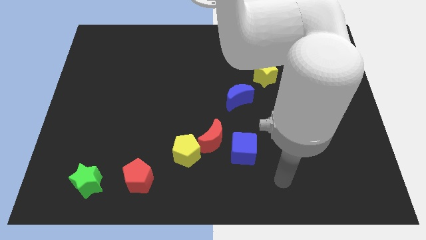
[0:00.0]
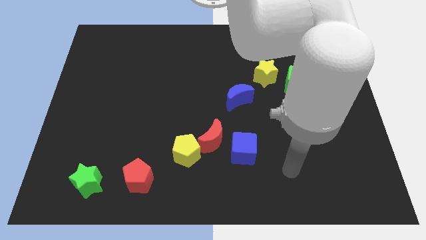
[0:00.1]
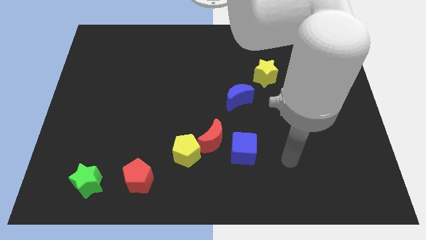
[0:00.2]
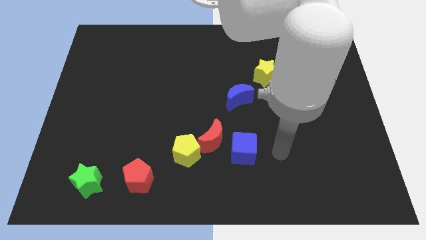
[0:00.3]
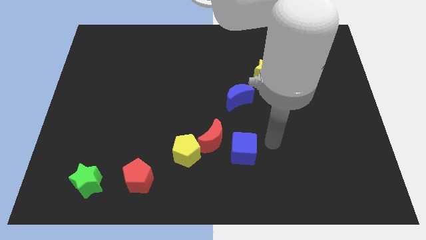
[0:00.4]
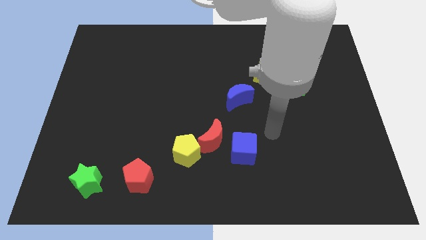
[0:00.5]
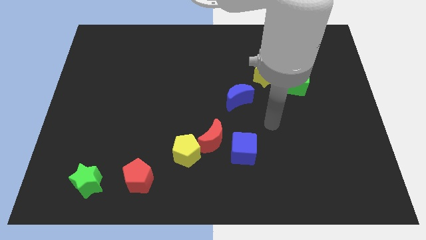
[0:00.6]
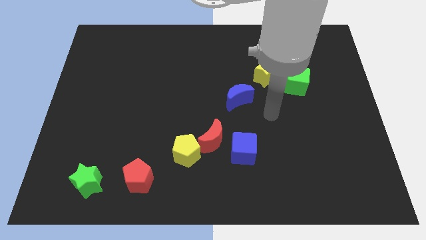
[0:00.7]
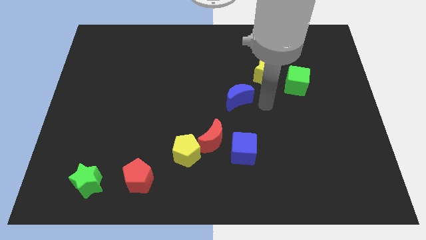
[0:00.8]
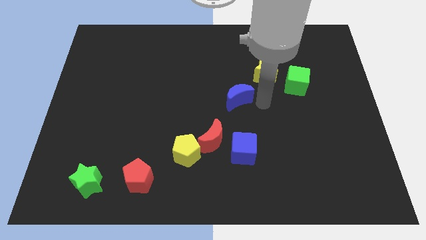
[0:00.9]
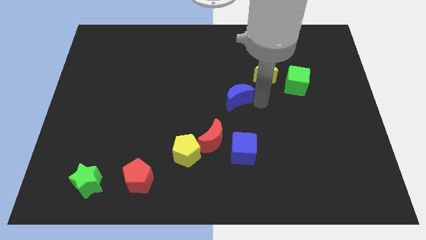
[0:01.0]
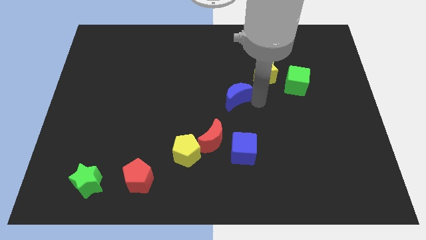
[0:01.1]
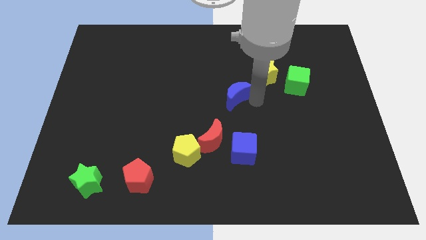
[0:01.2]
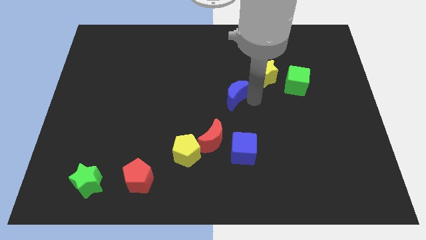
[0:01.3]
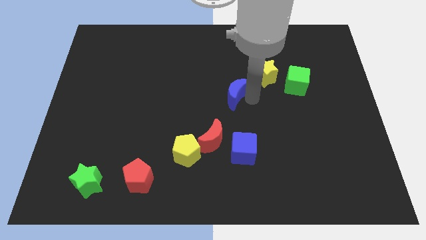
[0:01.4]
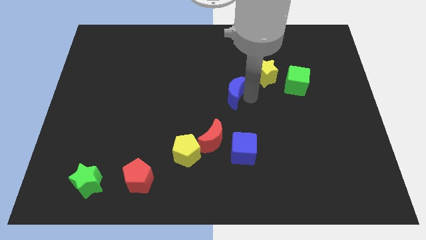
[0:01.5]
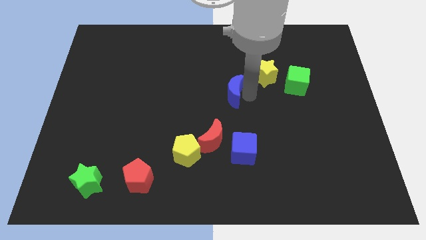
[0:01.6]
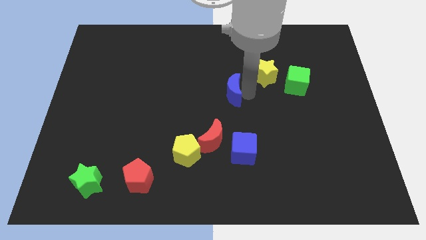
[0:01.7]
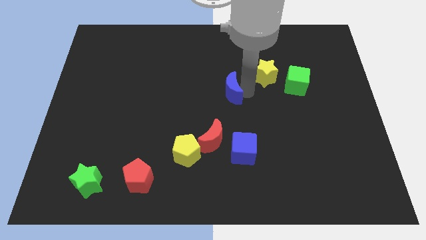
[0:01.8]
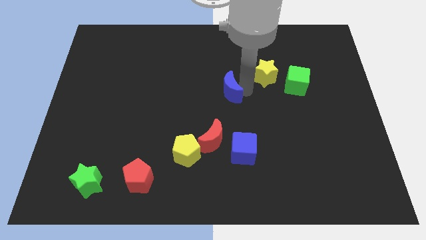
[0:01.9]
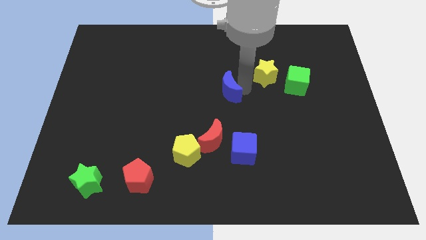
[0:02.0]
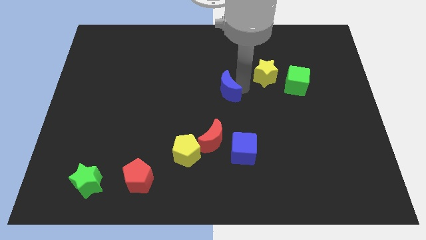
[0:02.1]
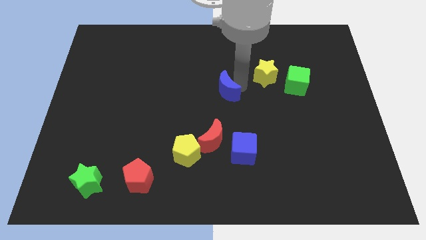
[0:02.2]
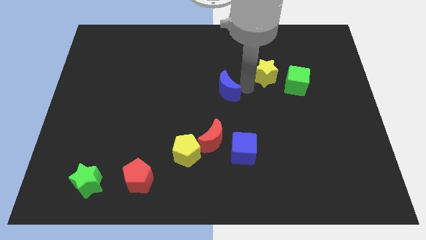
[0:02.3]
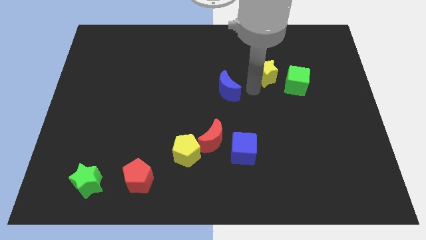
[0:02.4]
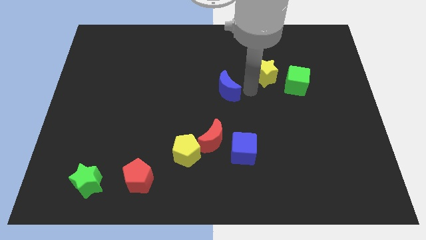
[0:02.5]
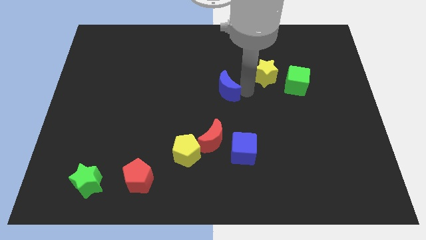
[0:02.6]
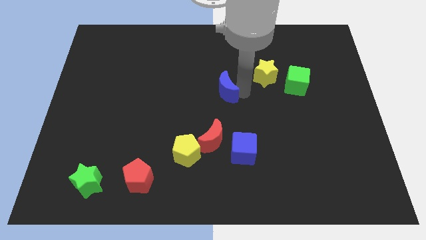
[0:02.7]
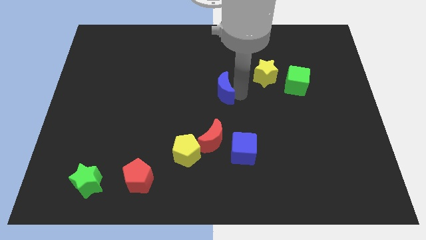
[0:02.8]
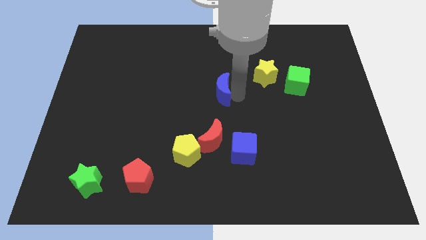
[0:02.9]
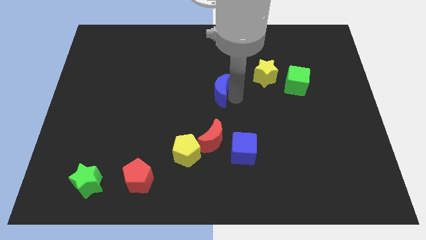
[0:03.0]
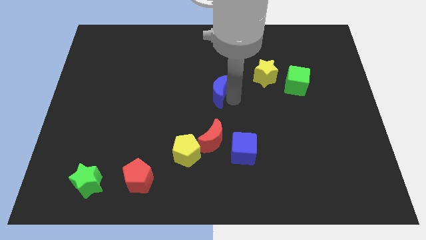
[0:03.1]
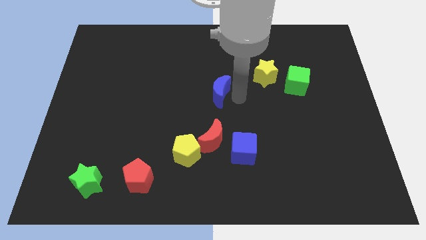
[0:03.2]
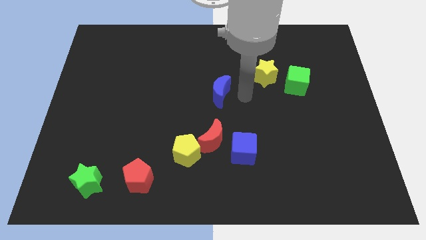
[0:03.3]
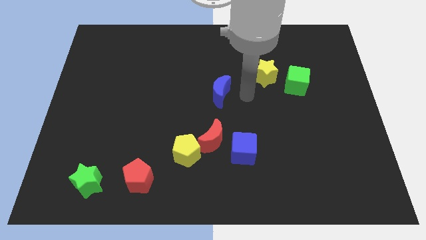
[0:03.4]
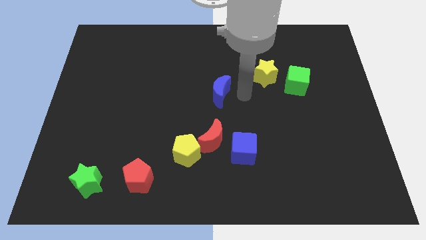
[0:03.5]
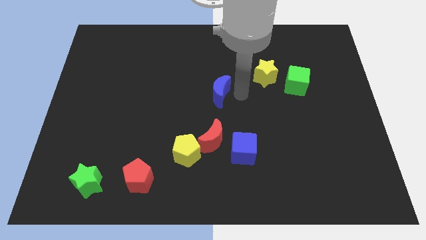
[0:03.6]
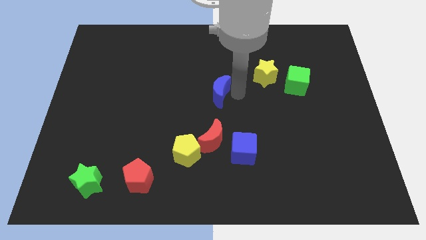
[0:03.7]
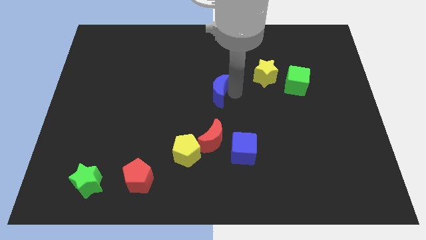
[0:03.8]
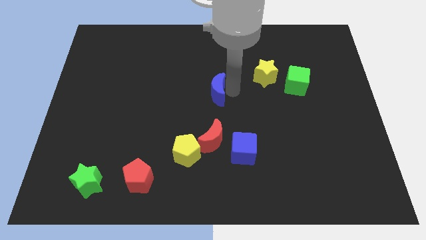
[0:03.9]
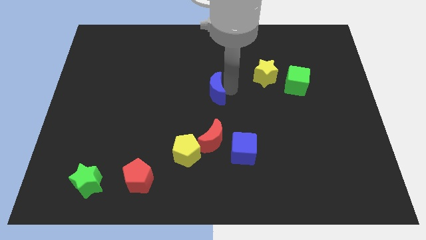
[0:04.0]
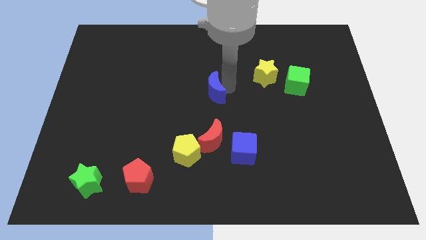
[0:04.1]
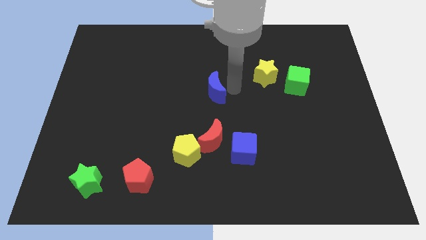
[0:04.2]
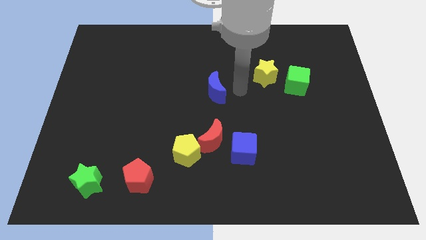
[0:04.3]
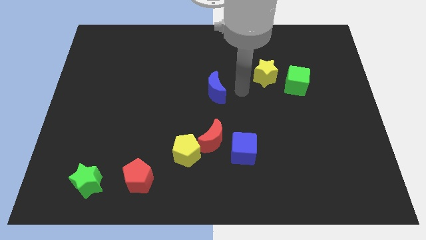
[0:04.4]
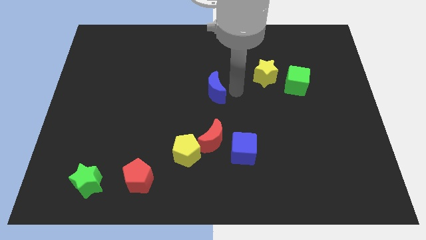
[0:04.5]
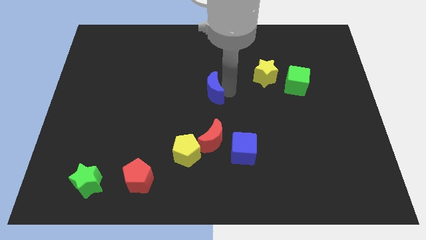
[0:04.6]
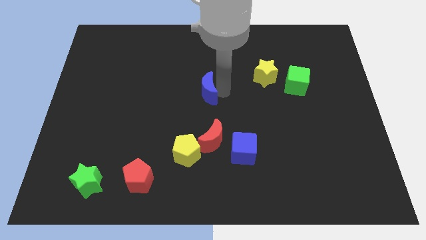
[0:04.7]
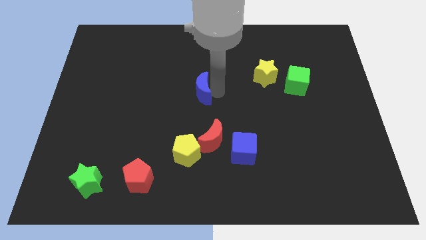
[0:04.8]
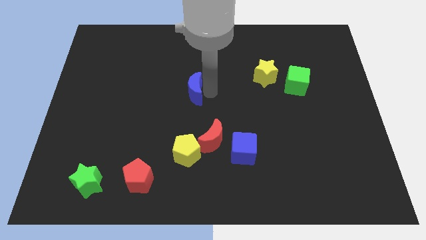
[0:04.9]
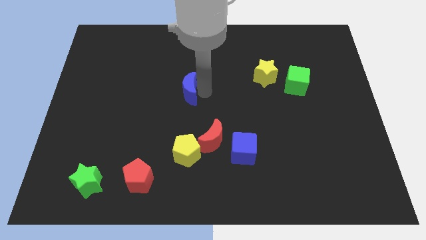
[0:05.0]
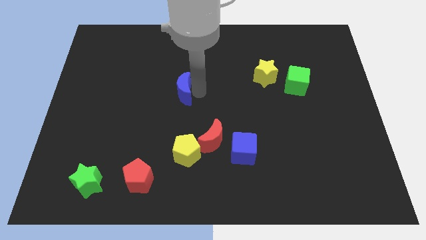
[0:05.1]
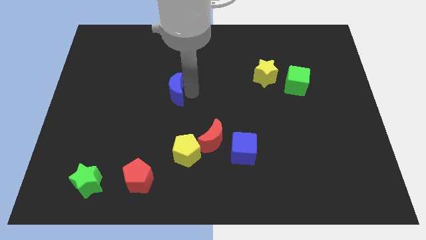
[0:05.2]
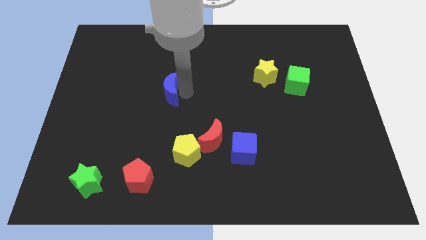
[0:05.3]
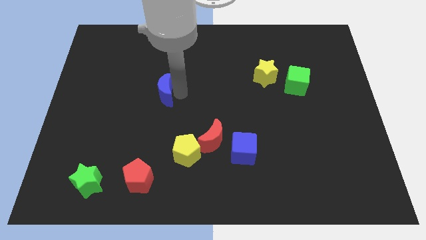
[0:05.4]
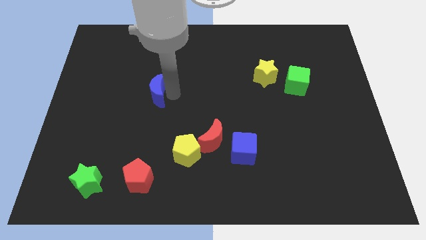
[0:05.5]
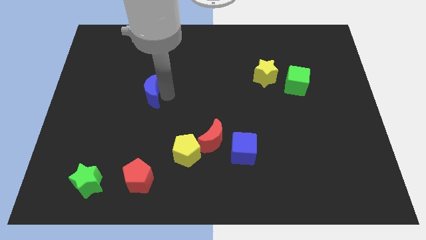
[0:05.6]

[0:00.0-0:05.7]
move the blue moon to the left

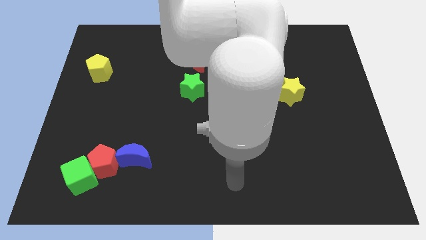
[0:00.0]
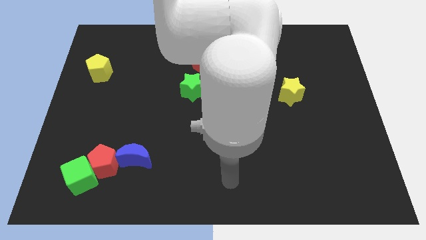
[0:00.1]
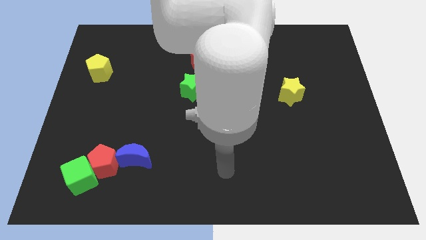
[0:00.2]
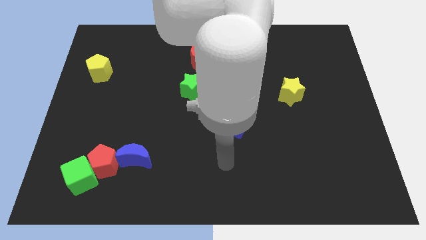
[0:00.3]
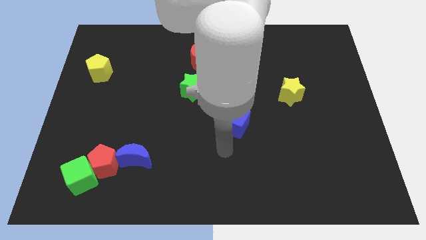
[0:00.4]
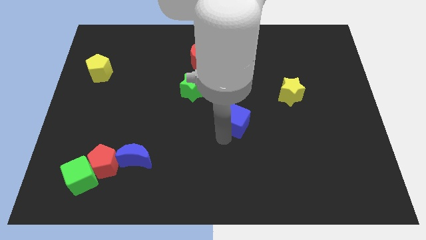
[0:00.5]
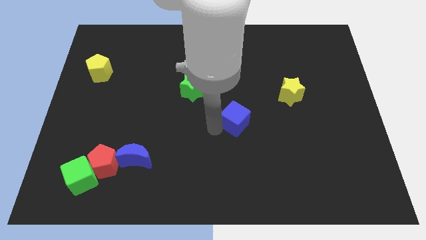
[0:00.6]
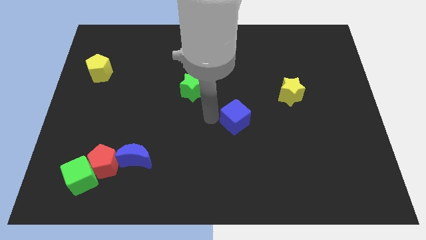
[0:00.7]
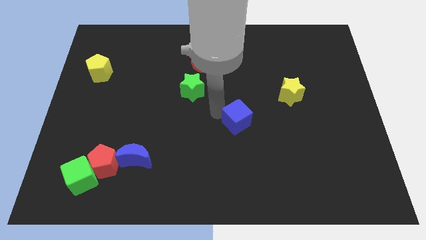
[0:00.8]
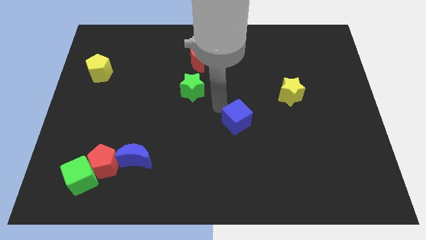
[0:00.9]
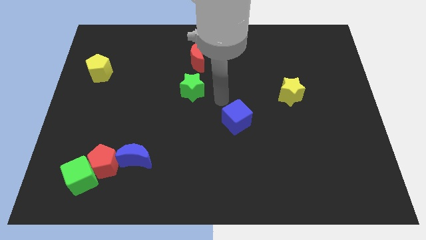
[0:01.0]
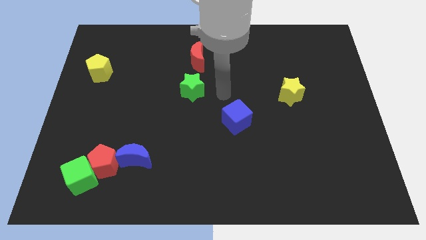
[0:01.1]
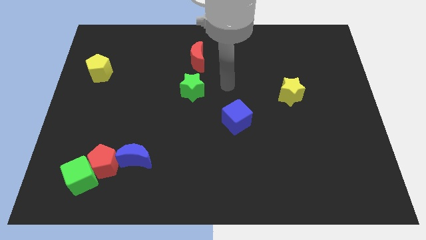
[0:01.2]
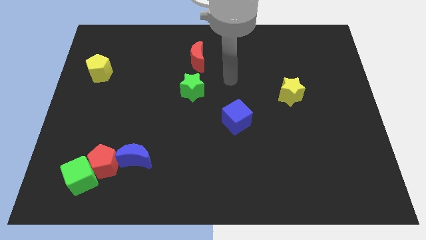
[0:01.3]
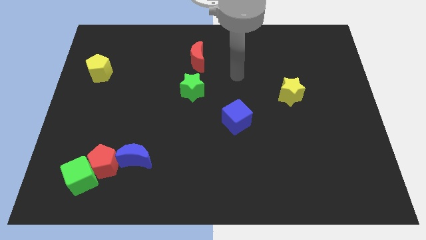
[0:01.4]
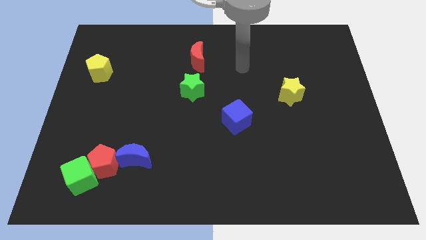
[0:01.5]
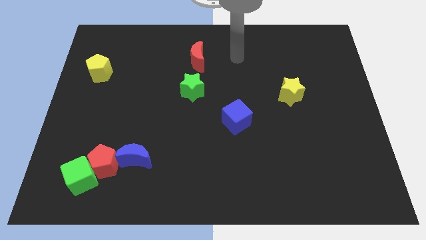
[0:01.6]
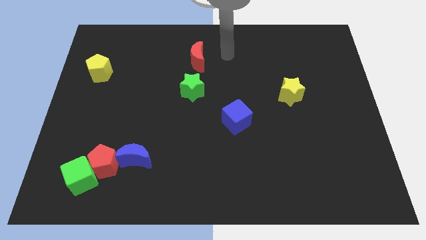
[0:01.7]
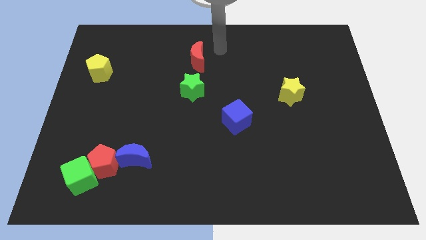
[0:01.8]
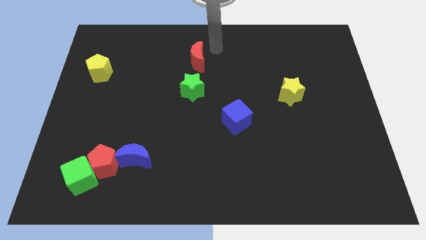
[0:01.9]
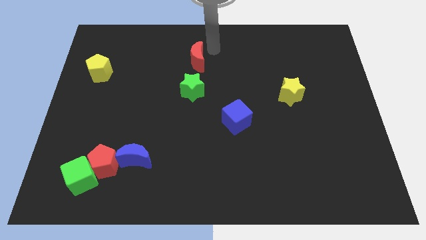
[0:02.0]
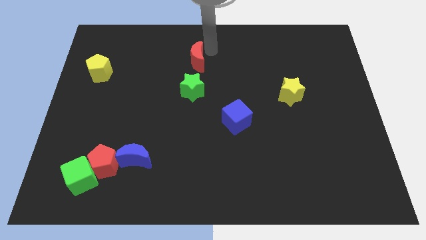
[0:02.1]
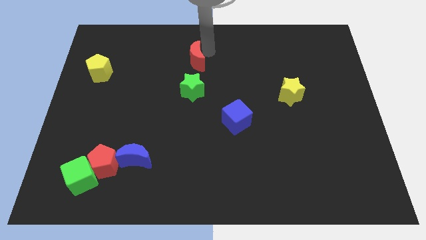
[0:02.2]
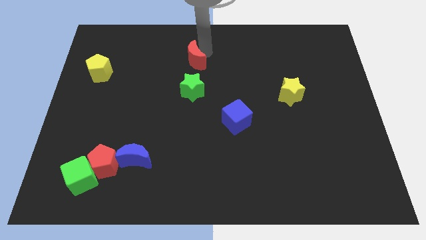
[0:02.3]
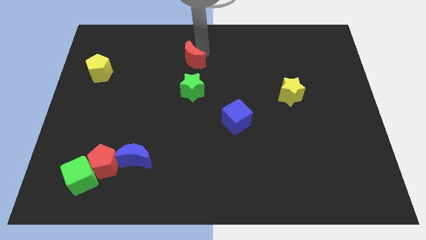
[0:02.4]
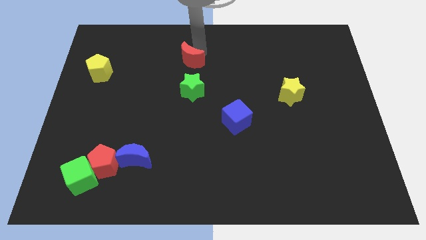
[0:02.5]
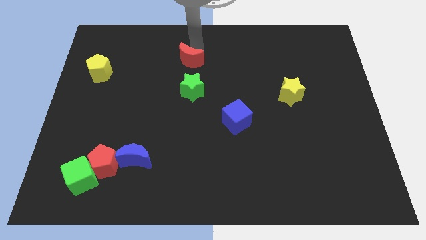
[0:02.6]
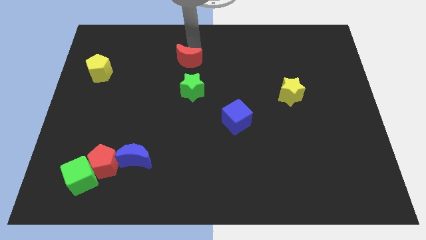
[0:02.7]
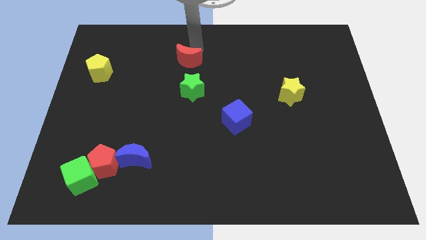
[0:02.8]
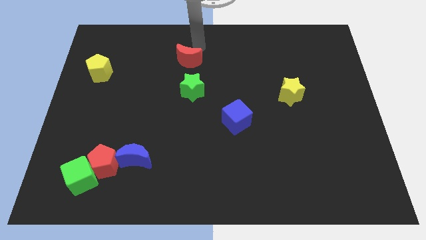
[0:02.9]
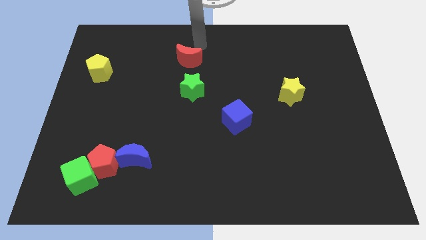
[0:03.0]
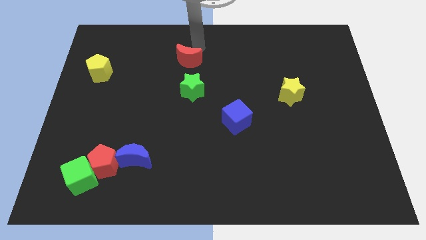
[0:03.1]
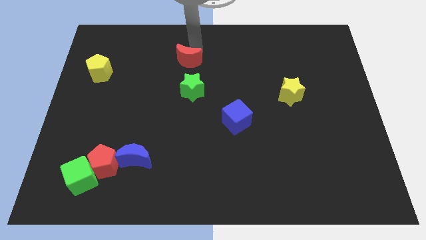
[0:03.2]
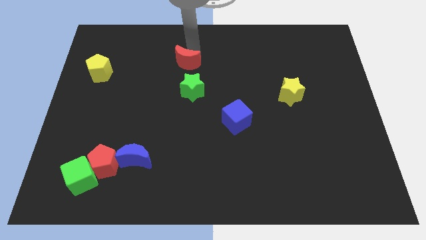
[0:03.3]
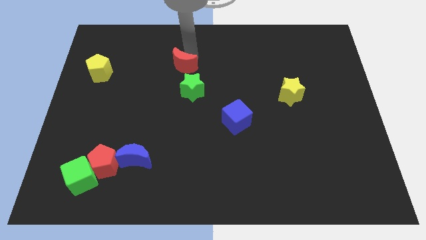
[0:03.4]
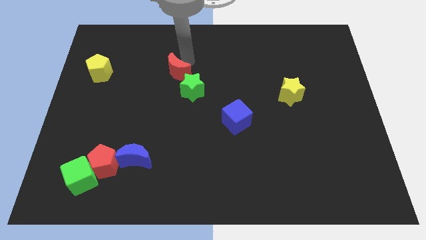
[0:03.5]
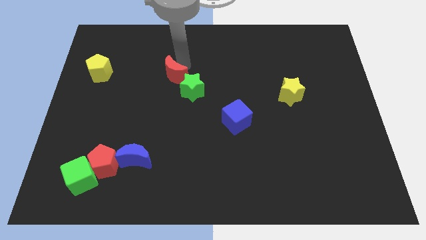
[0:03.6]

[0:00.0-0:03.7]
push the red moon slightly downwards and to the left diagonally
